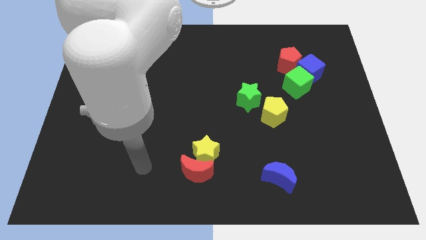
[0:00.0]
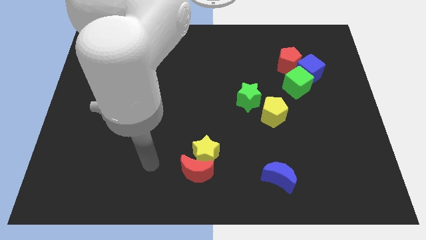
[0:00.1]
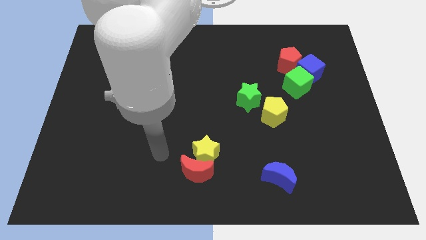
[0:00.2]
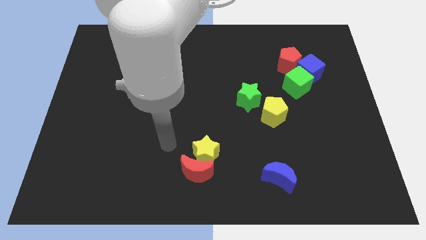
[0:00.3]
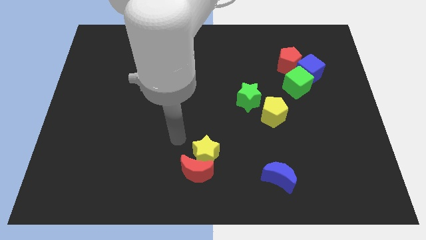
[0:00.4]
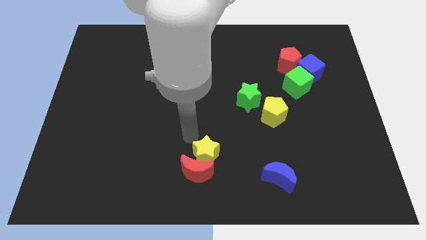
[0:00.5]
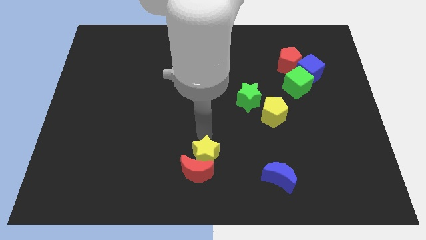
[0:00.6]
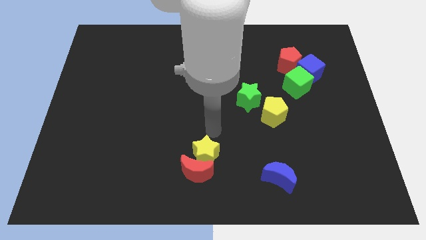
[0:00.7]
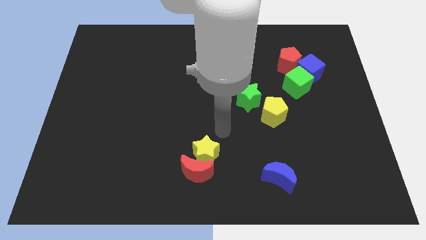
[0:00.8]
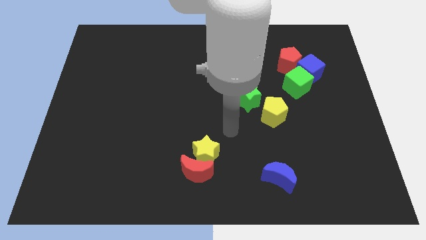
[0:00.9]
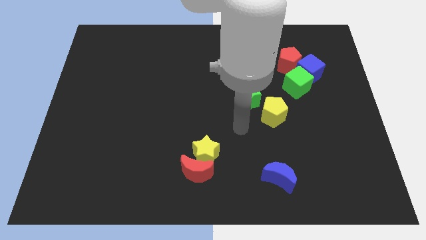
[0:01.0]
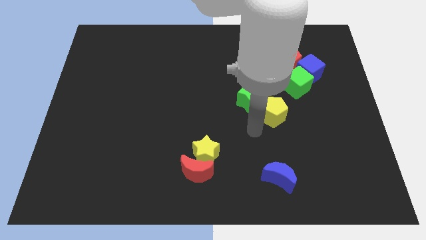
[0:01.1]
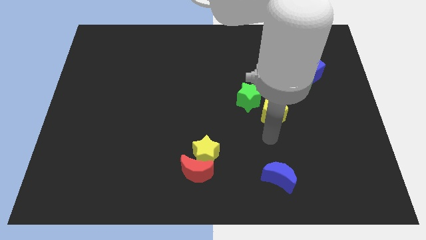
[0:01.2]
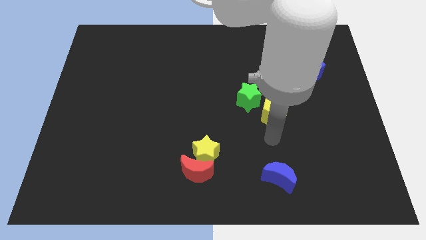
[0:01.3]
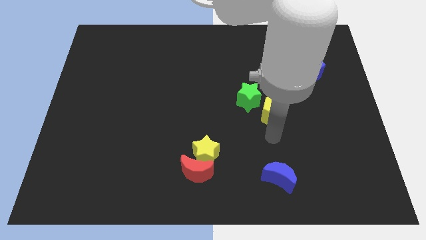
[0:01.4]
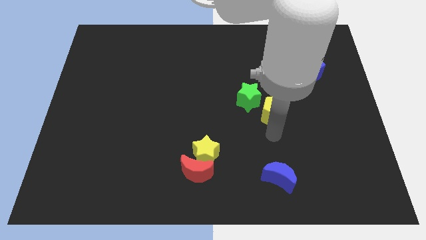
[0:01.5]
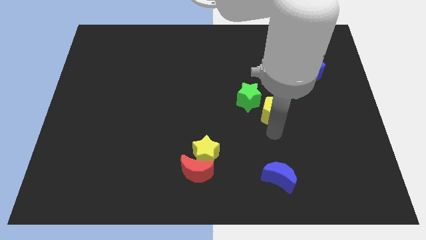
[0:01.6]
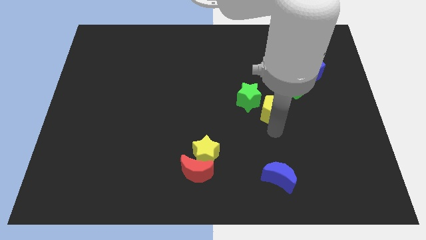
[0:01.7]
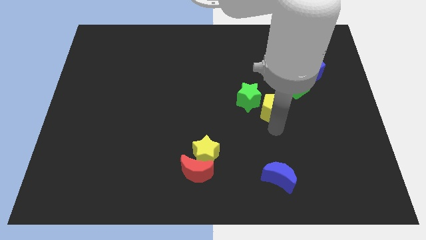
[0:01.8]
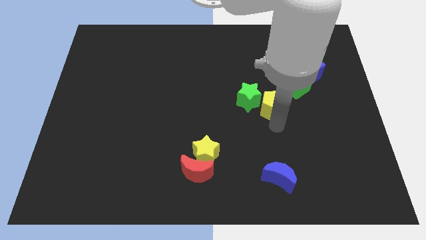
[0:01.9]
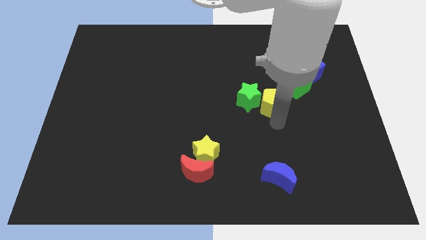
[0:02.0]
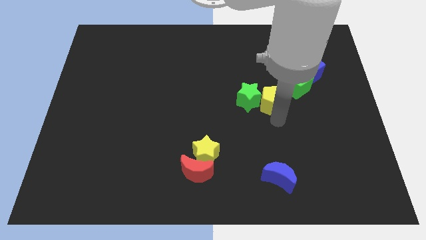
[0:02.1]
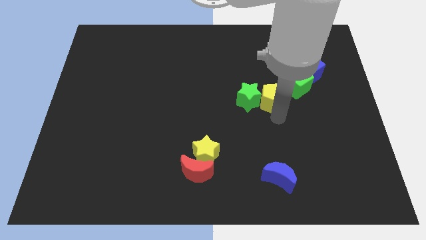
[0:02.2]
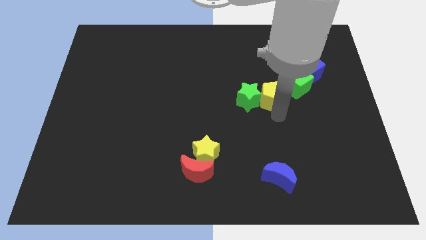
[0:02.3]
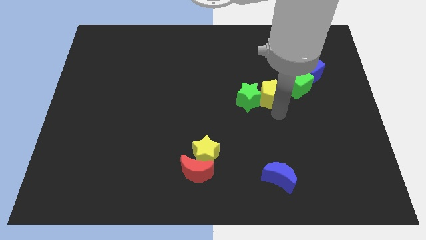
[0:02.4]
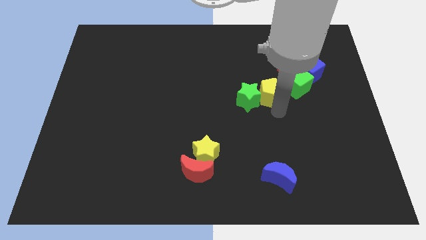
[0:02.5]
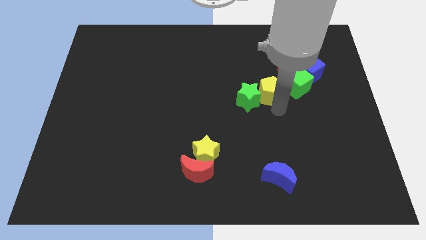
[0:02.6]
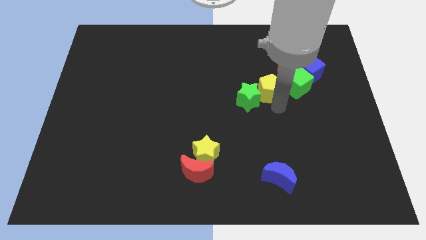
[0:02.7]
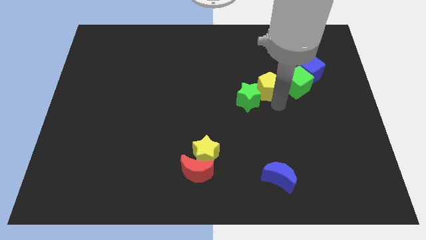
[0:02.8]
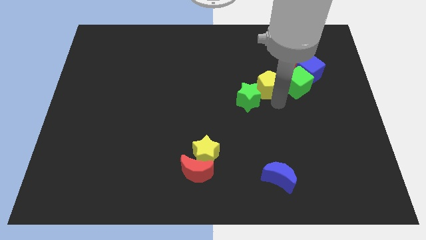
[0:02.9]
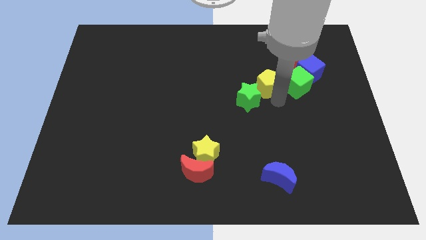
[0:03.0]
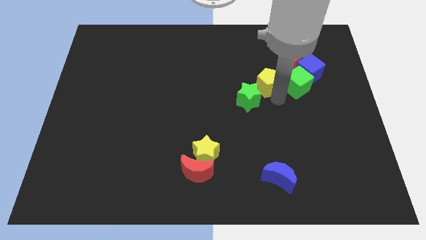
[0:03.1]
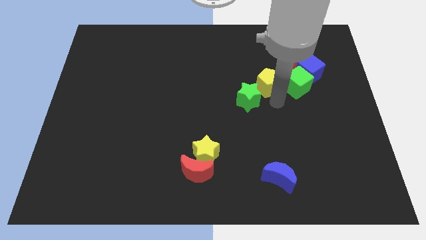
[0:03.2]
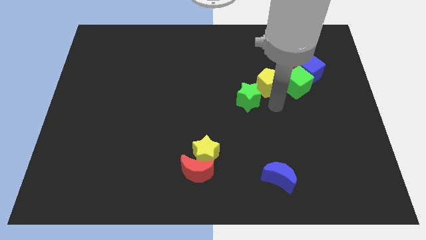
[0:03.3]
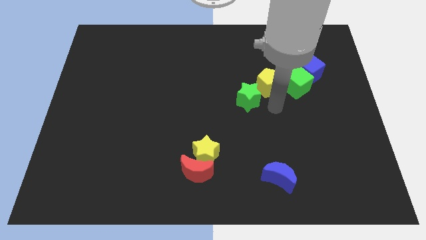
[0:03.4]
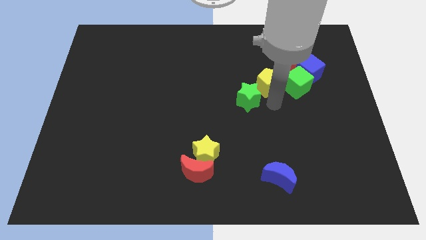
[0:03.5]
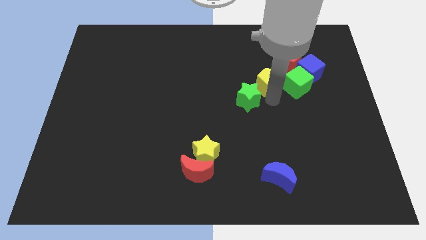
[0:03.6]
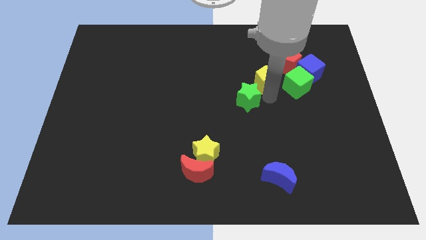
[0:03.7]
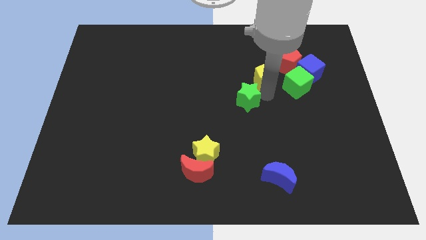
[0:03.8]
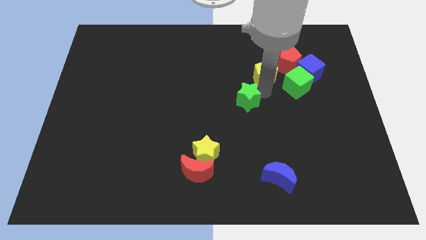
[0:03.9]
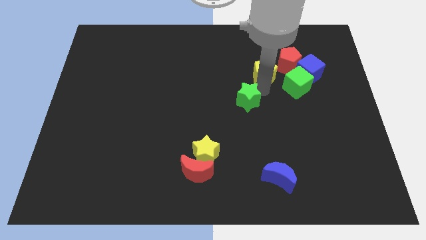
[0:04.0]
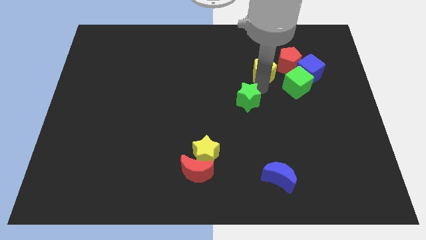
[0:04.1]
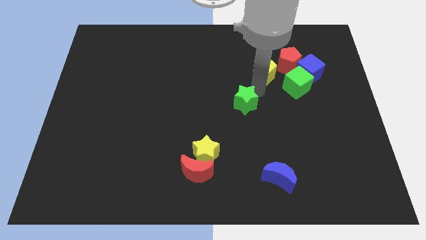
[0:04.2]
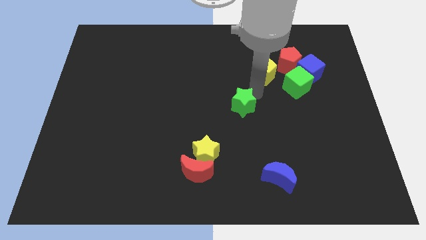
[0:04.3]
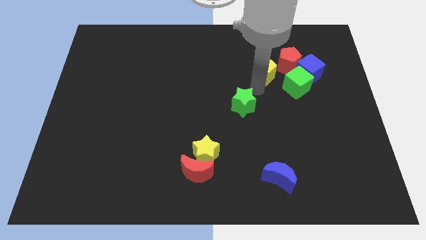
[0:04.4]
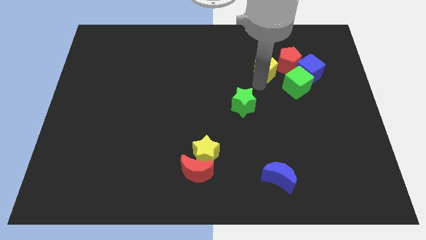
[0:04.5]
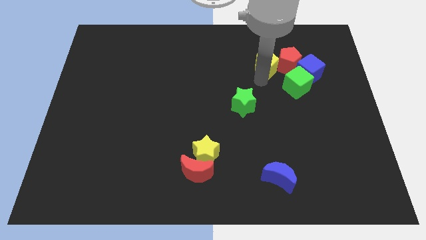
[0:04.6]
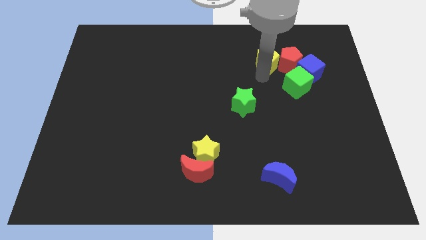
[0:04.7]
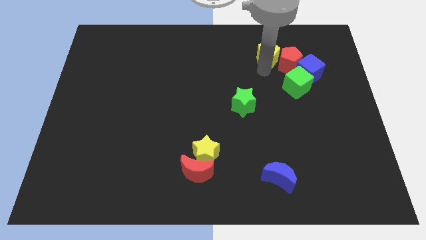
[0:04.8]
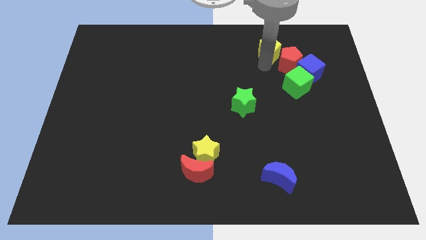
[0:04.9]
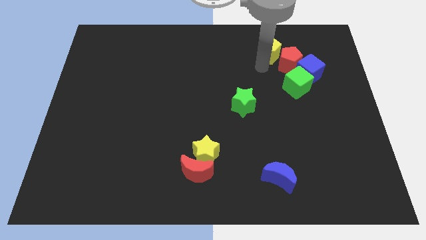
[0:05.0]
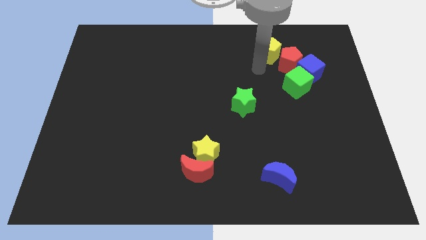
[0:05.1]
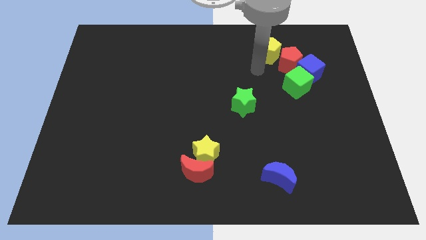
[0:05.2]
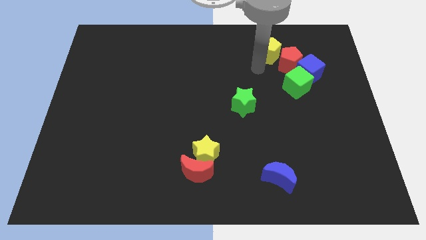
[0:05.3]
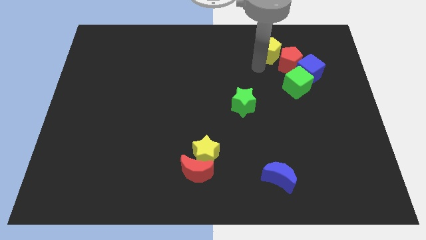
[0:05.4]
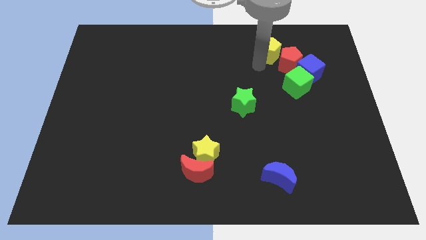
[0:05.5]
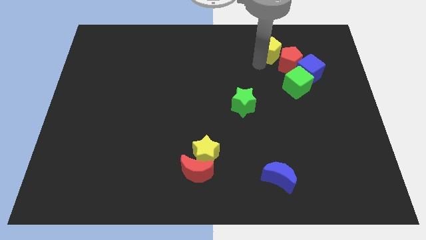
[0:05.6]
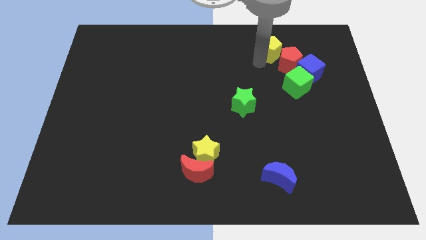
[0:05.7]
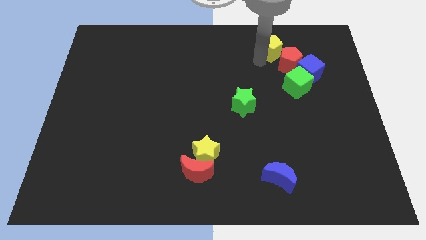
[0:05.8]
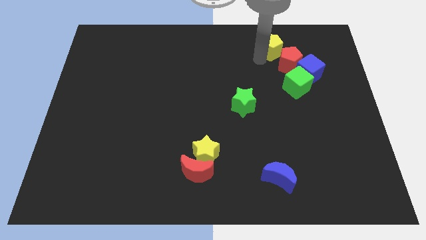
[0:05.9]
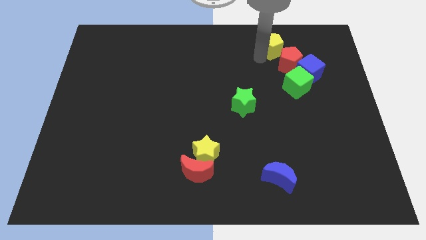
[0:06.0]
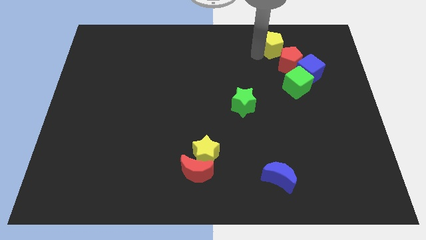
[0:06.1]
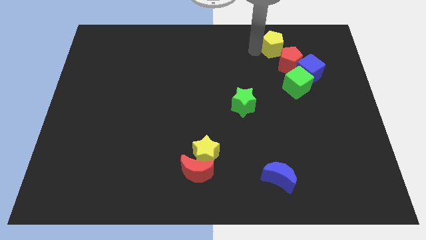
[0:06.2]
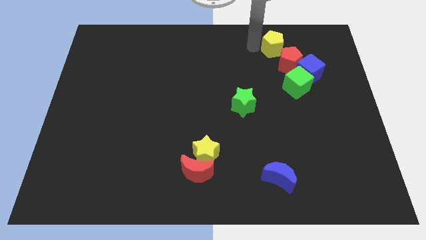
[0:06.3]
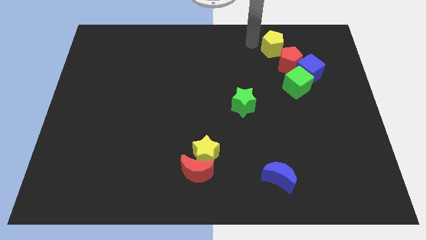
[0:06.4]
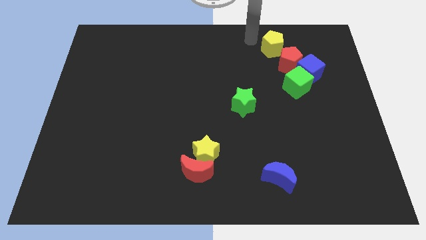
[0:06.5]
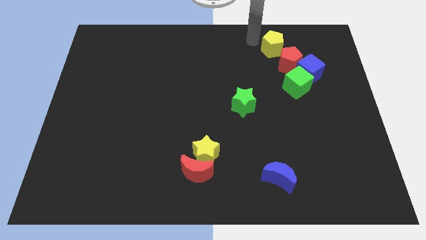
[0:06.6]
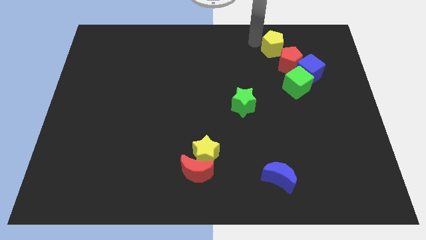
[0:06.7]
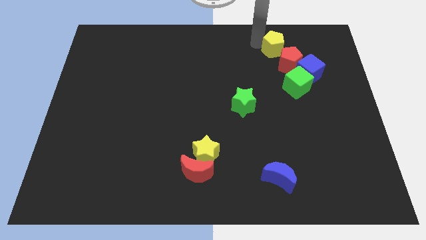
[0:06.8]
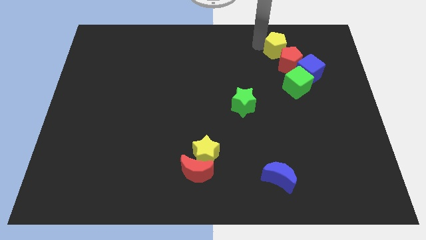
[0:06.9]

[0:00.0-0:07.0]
put the yellow pentagon to the top side of the green cube
